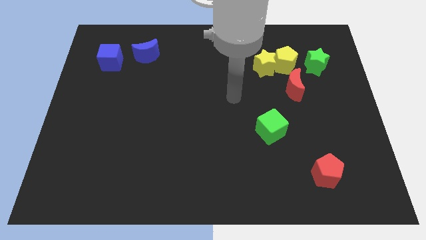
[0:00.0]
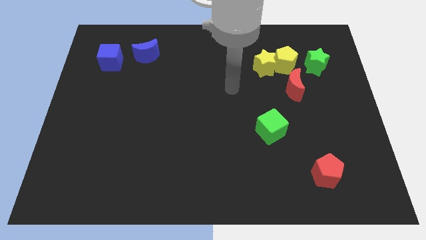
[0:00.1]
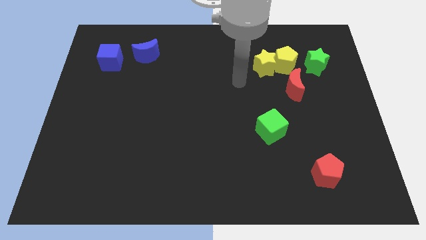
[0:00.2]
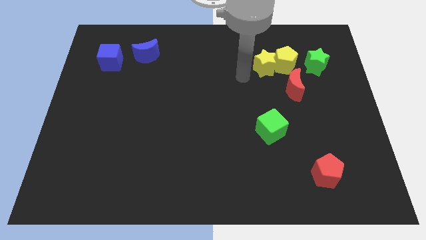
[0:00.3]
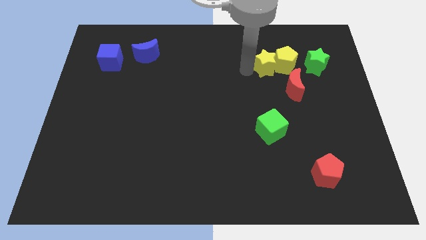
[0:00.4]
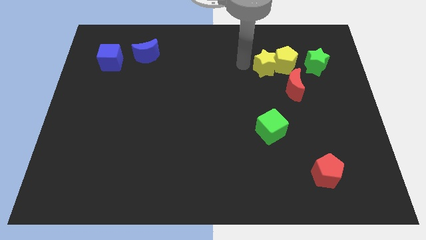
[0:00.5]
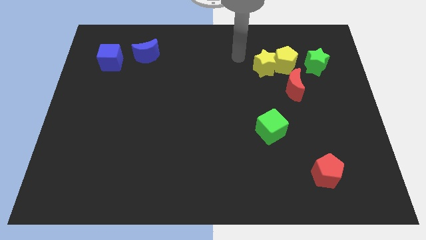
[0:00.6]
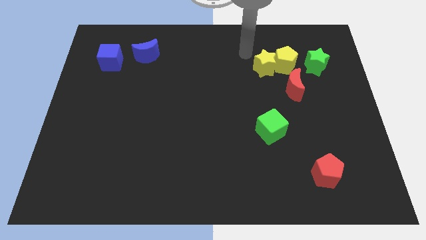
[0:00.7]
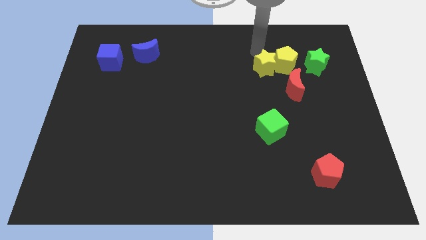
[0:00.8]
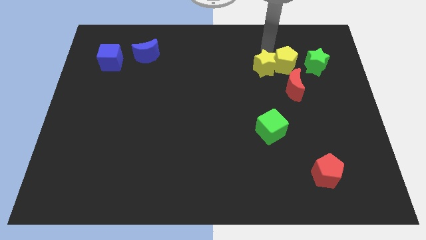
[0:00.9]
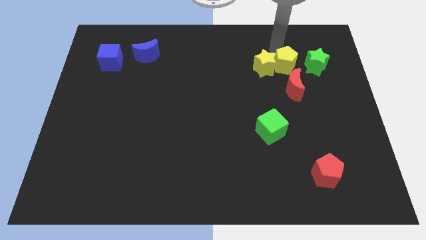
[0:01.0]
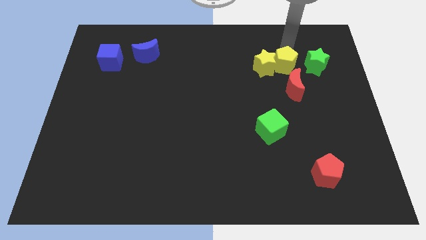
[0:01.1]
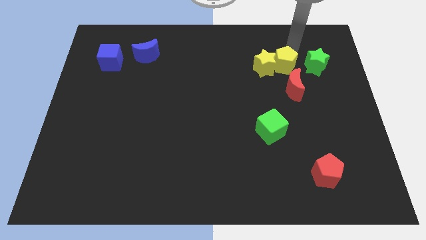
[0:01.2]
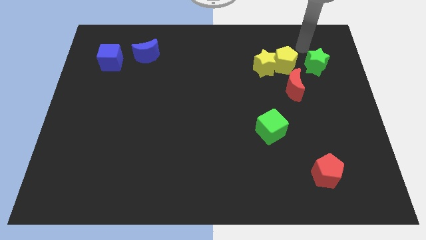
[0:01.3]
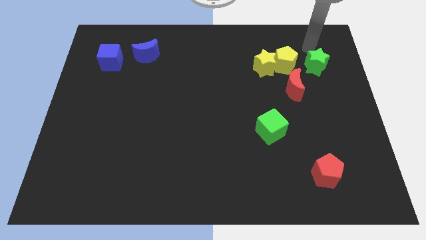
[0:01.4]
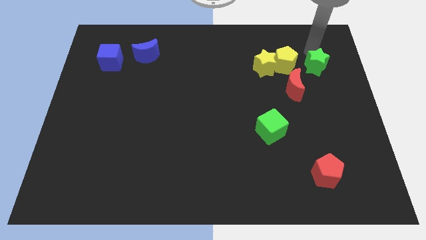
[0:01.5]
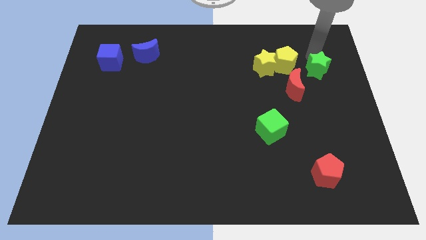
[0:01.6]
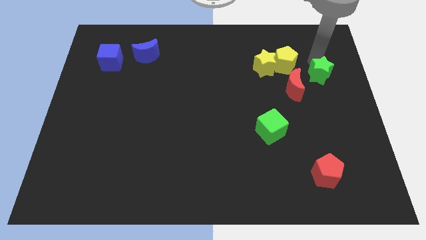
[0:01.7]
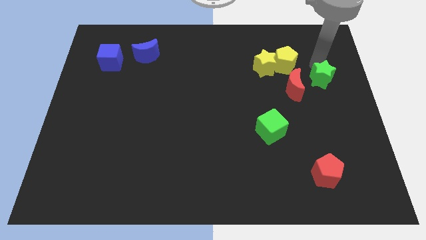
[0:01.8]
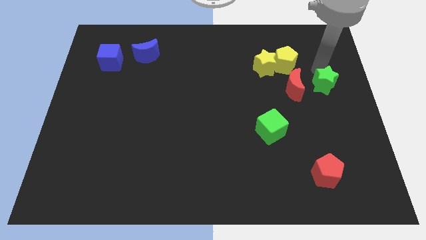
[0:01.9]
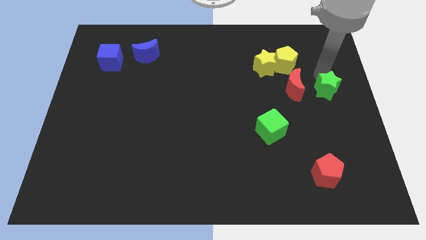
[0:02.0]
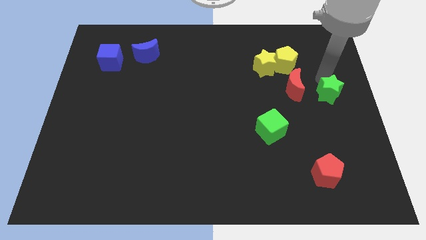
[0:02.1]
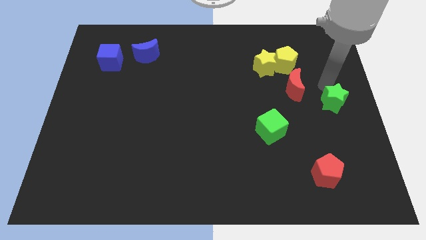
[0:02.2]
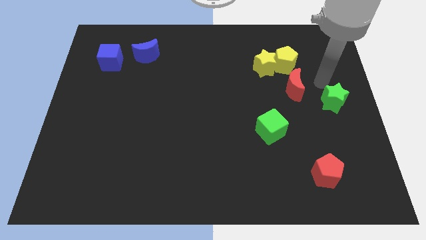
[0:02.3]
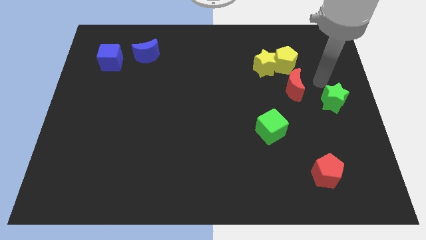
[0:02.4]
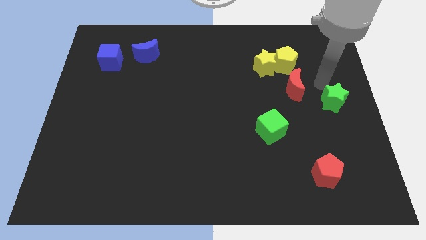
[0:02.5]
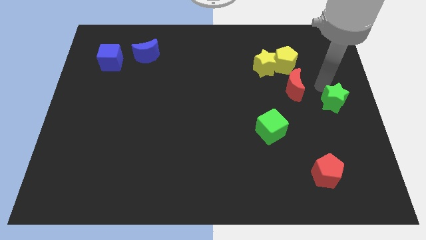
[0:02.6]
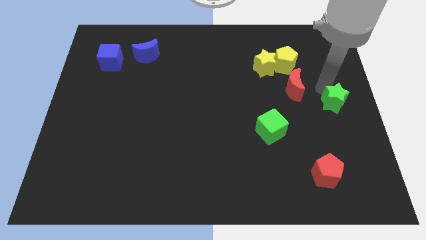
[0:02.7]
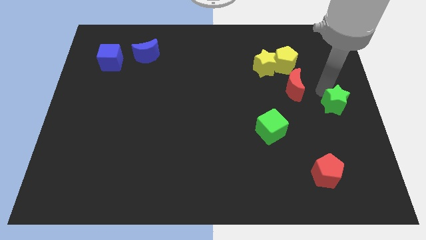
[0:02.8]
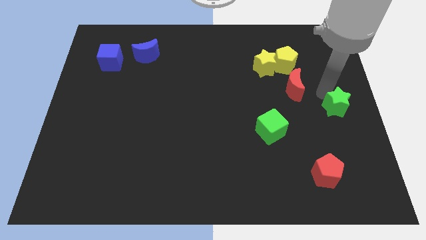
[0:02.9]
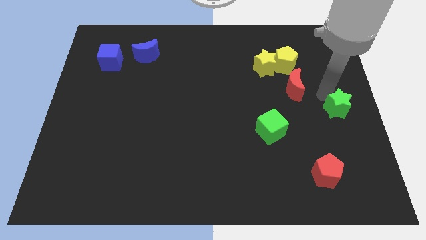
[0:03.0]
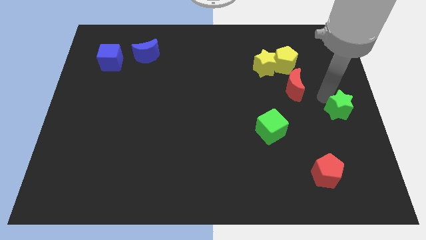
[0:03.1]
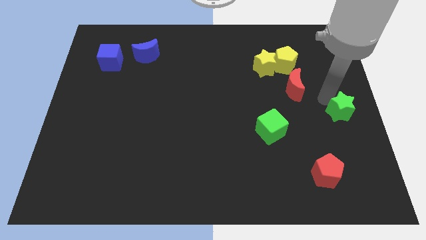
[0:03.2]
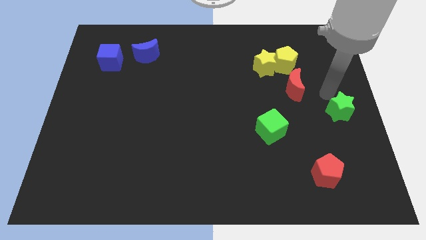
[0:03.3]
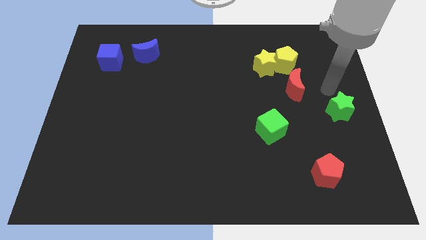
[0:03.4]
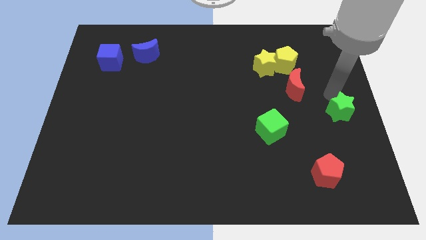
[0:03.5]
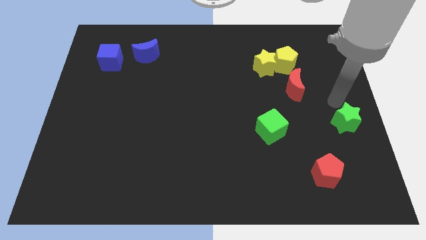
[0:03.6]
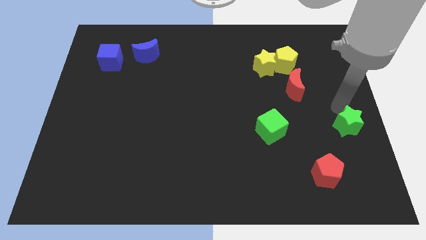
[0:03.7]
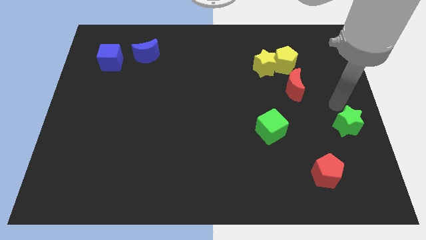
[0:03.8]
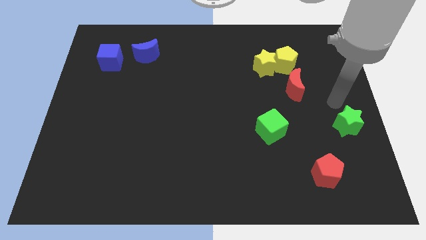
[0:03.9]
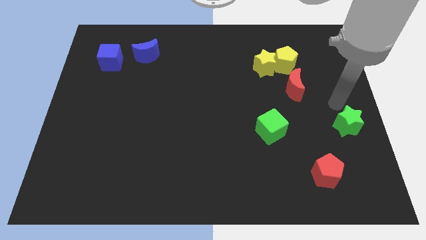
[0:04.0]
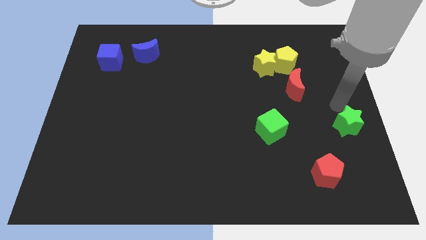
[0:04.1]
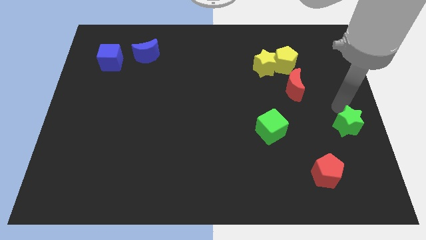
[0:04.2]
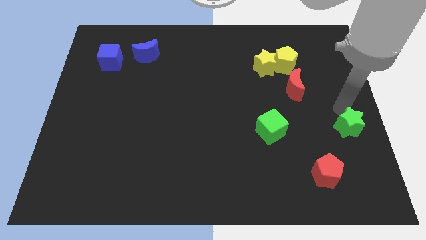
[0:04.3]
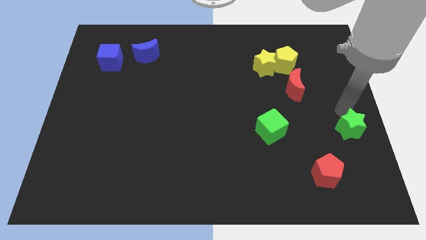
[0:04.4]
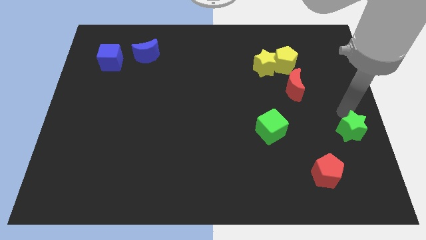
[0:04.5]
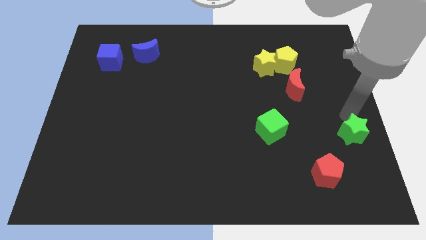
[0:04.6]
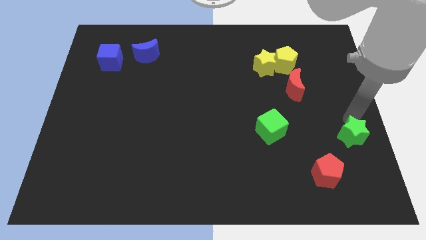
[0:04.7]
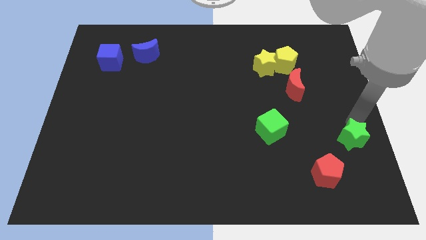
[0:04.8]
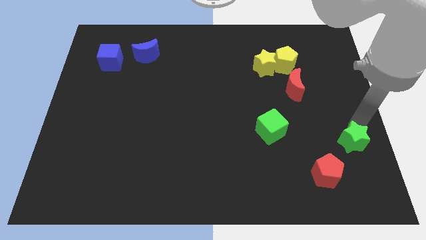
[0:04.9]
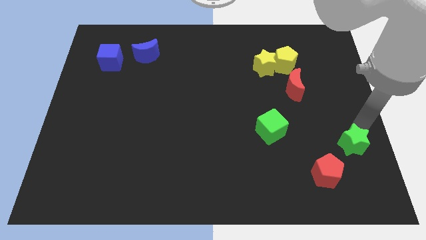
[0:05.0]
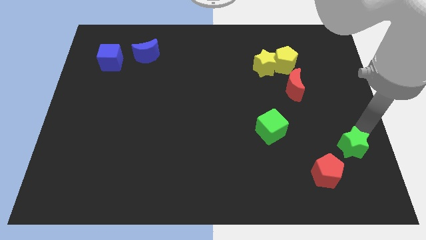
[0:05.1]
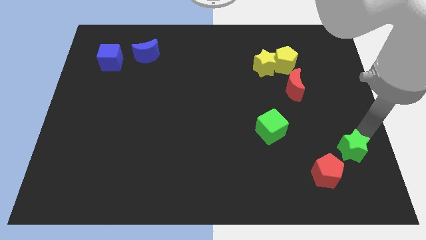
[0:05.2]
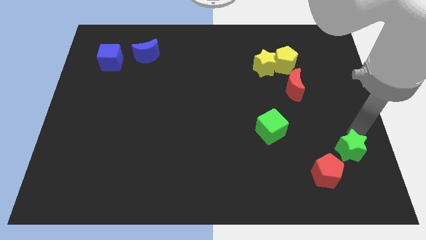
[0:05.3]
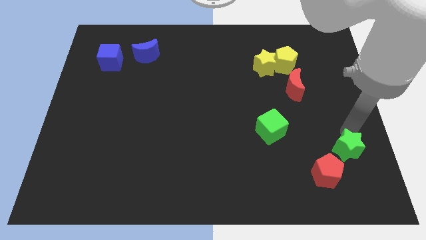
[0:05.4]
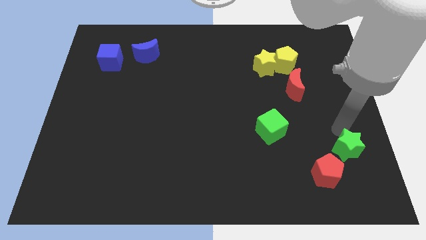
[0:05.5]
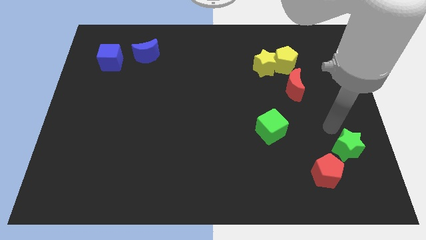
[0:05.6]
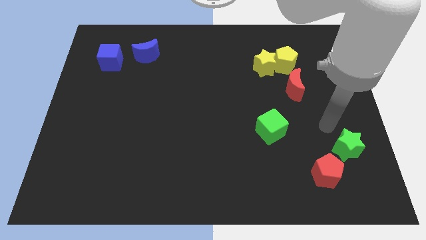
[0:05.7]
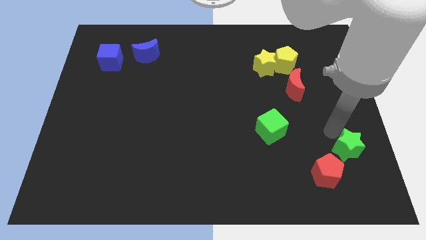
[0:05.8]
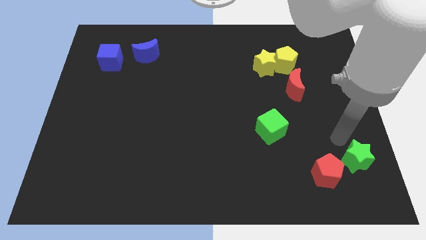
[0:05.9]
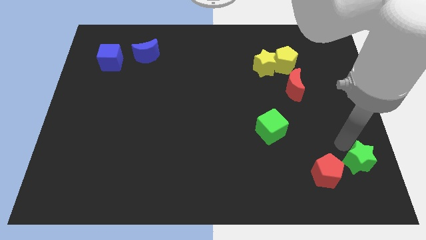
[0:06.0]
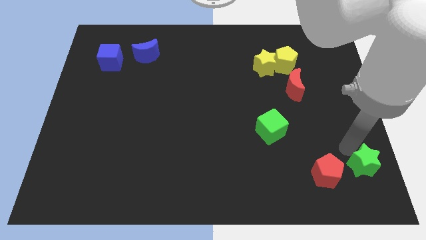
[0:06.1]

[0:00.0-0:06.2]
move the green star to the bottom right of the board

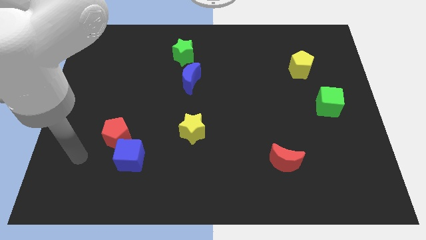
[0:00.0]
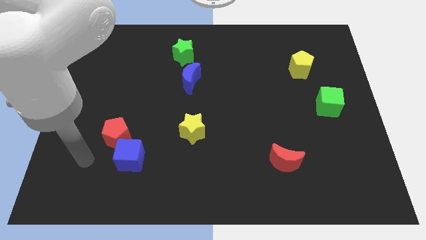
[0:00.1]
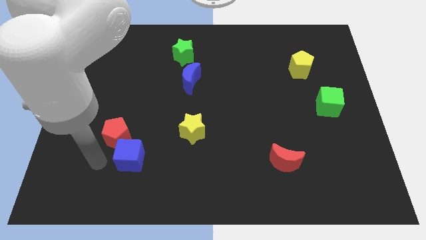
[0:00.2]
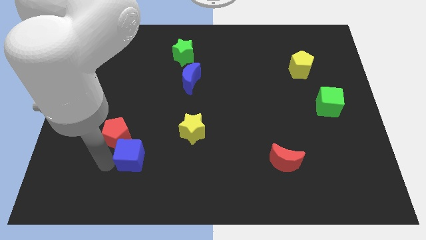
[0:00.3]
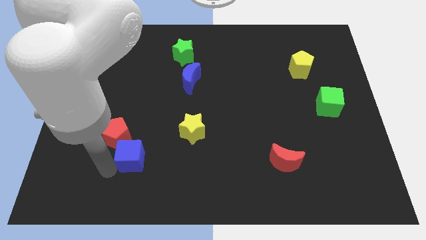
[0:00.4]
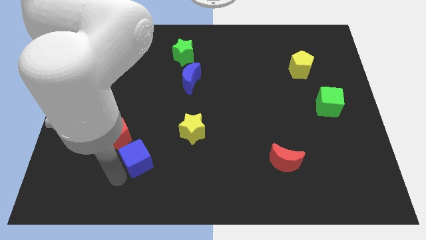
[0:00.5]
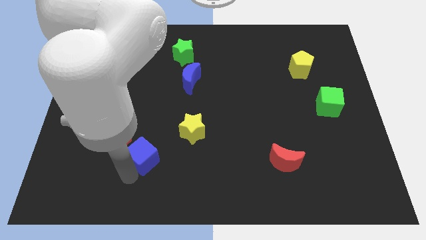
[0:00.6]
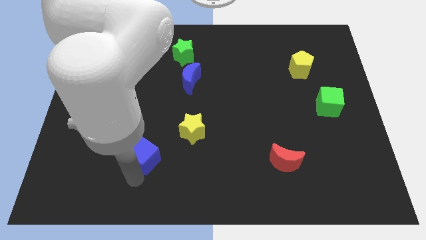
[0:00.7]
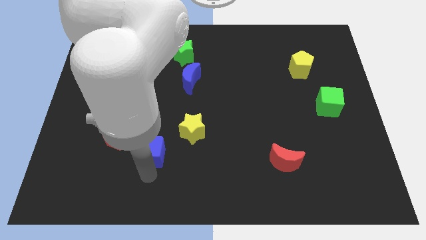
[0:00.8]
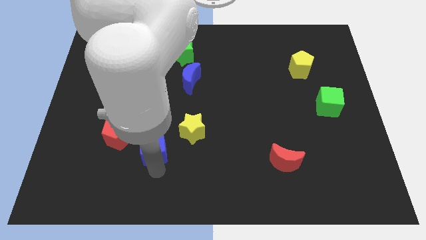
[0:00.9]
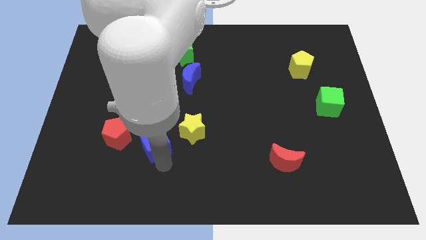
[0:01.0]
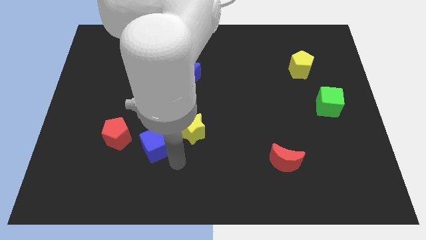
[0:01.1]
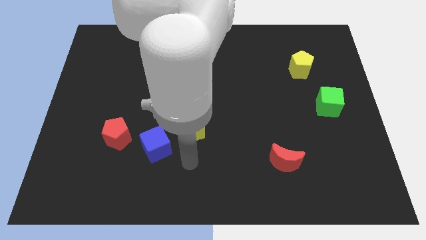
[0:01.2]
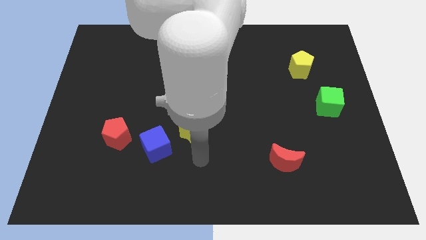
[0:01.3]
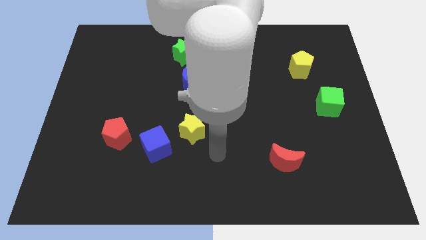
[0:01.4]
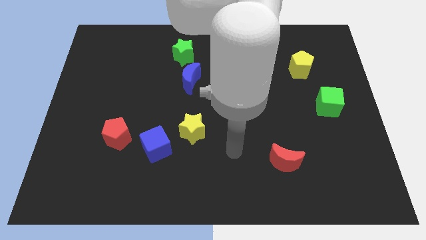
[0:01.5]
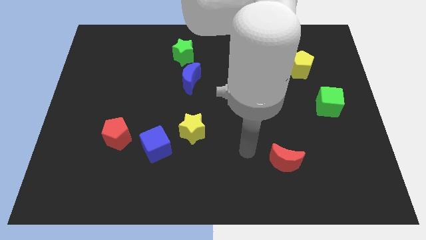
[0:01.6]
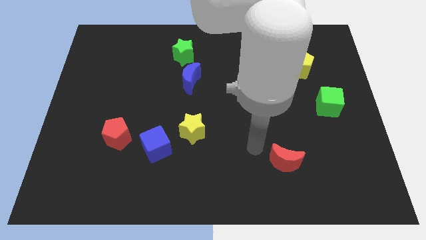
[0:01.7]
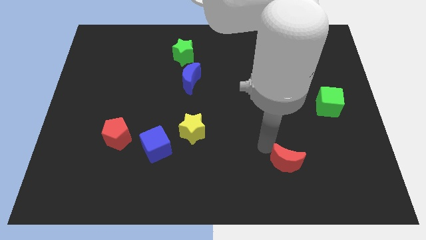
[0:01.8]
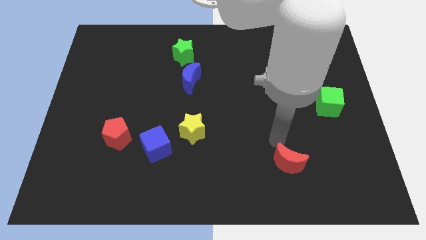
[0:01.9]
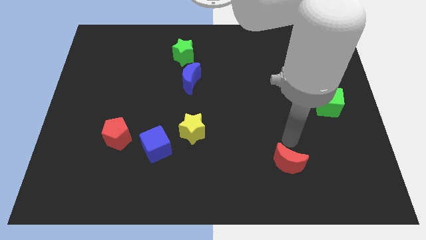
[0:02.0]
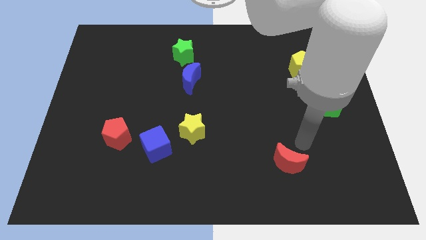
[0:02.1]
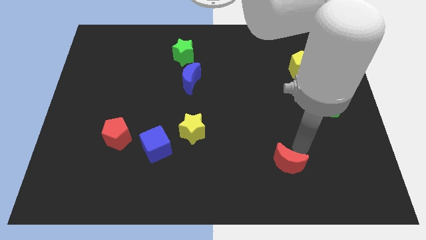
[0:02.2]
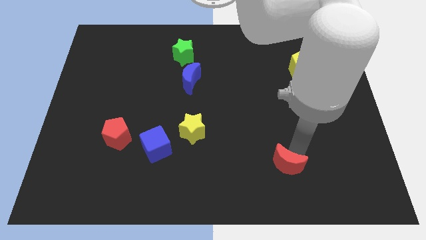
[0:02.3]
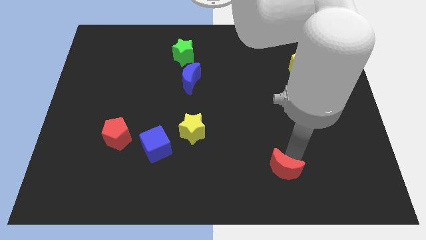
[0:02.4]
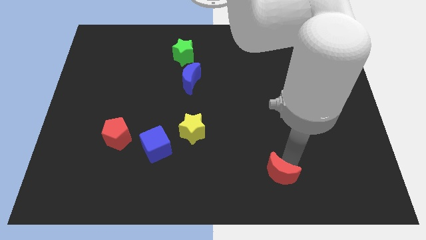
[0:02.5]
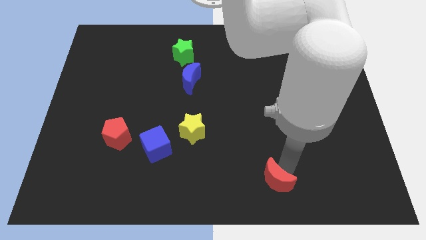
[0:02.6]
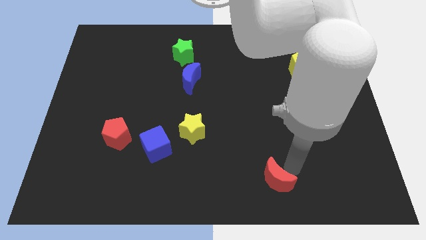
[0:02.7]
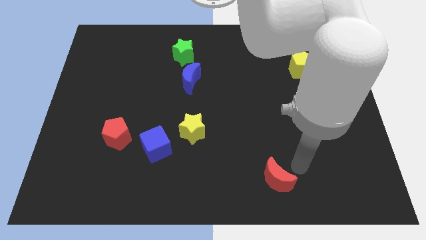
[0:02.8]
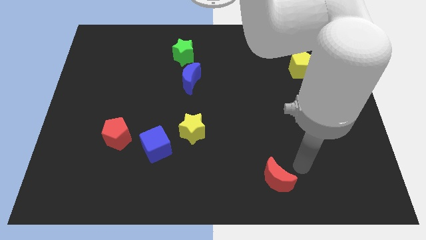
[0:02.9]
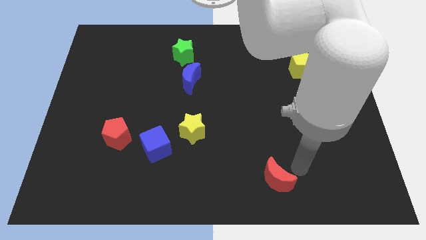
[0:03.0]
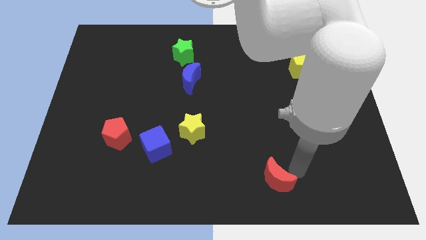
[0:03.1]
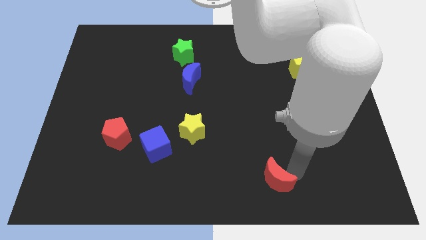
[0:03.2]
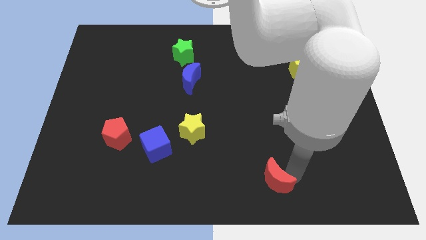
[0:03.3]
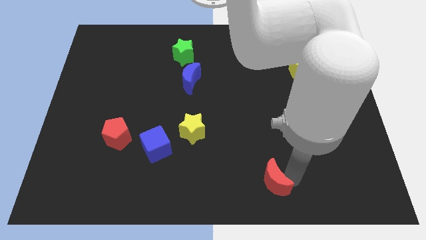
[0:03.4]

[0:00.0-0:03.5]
move the red moon to the bottom side
